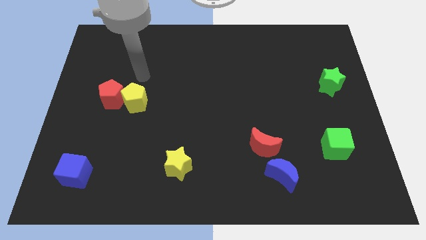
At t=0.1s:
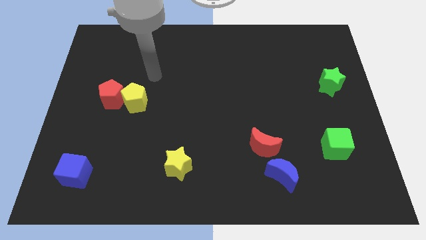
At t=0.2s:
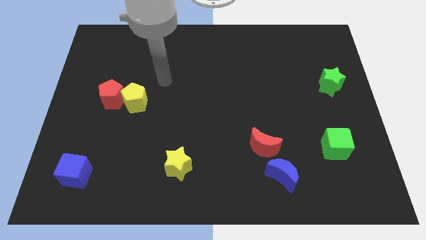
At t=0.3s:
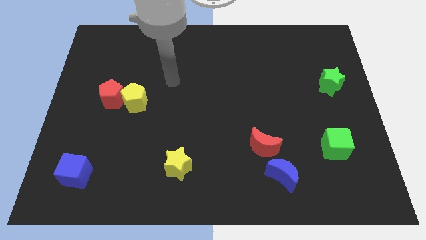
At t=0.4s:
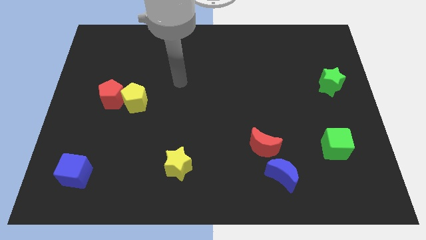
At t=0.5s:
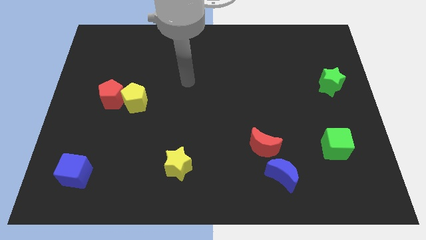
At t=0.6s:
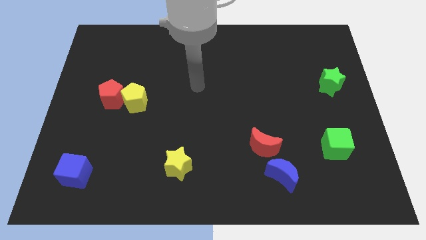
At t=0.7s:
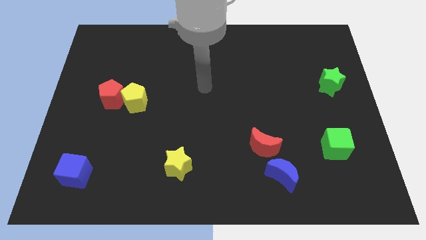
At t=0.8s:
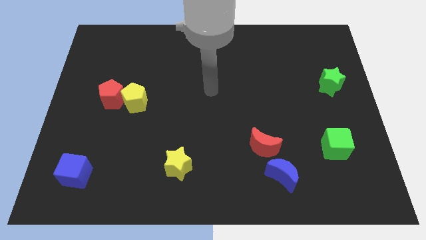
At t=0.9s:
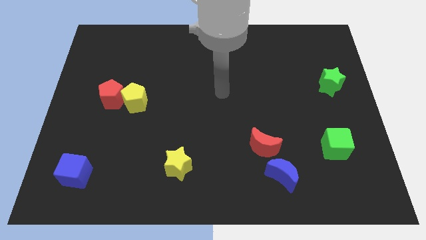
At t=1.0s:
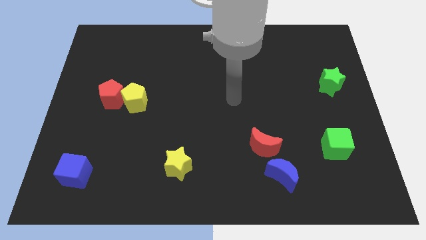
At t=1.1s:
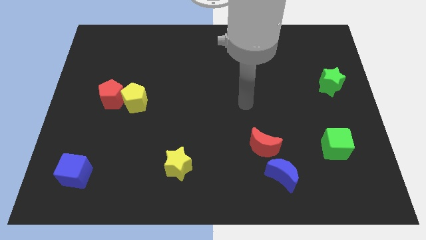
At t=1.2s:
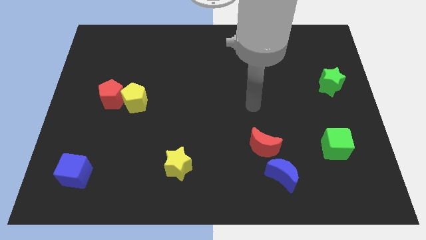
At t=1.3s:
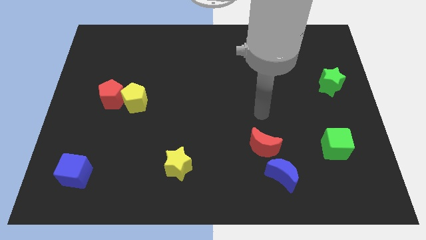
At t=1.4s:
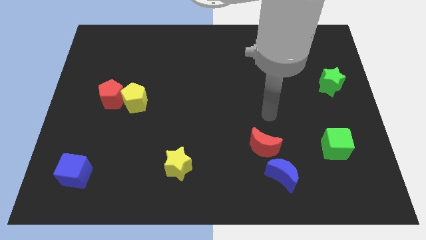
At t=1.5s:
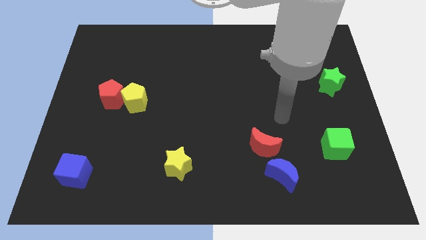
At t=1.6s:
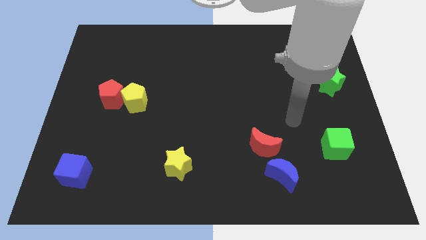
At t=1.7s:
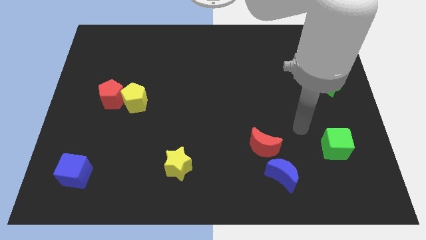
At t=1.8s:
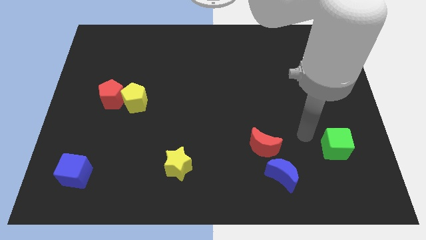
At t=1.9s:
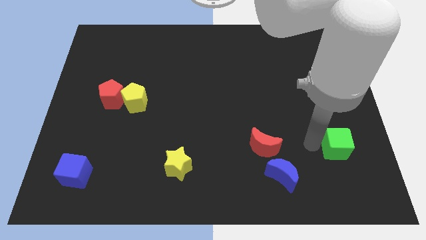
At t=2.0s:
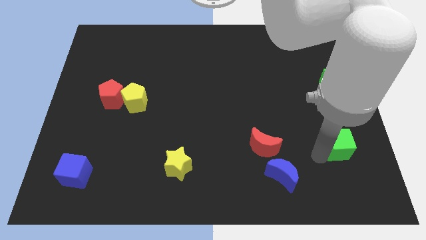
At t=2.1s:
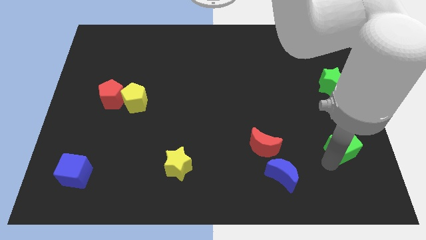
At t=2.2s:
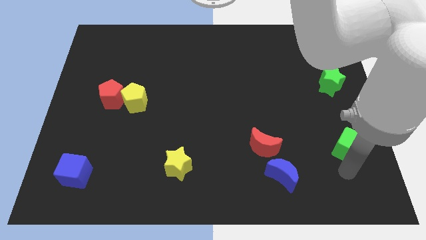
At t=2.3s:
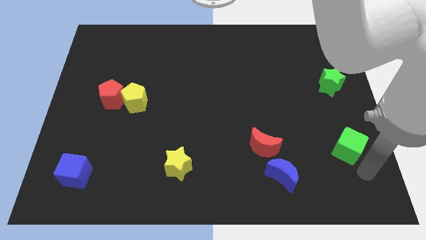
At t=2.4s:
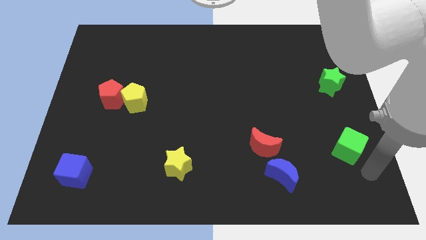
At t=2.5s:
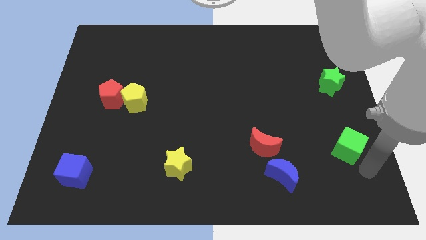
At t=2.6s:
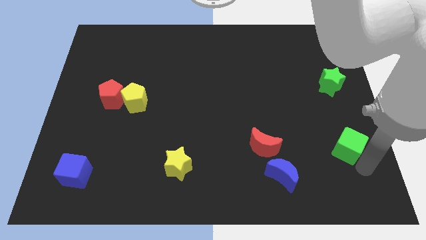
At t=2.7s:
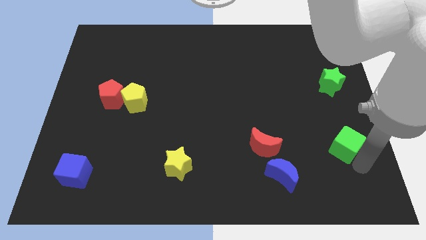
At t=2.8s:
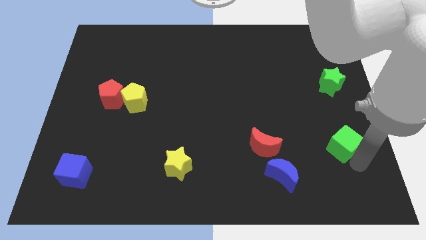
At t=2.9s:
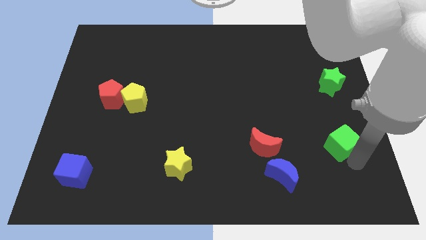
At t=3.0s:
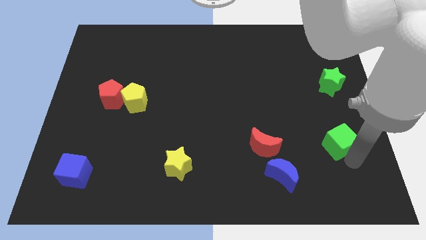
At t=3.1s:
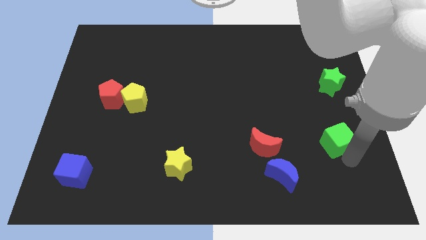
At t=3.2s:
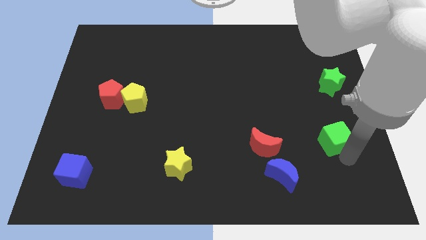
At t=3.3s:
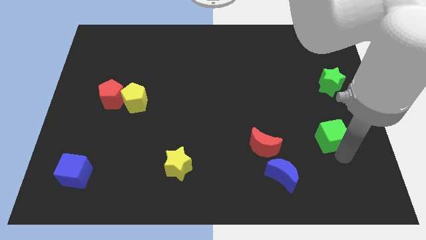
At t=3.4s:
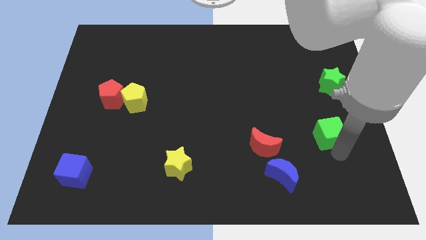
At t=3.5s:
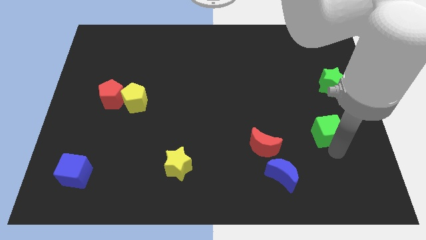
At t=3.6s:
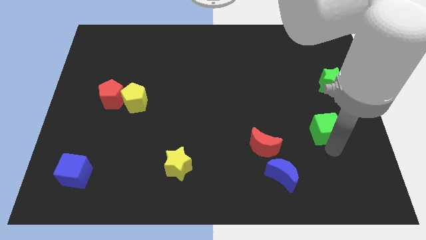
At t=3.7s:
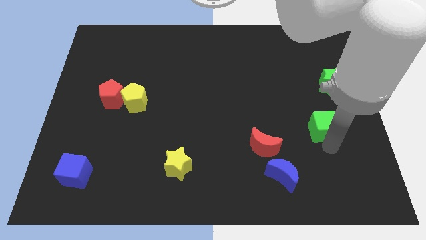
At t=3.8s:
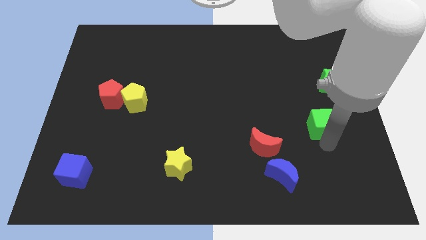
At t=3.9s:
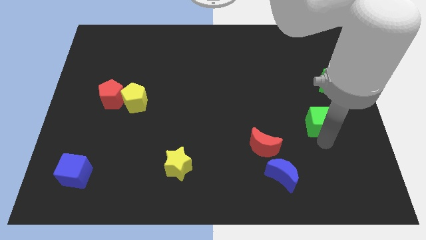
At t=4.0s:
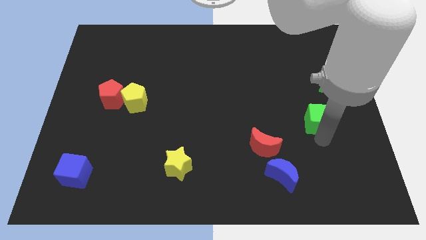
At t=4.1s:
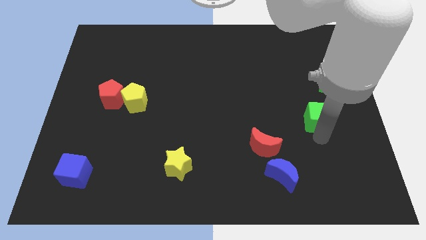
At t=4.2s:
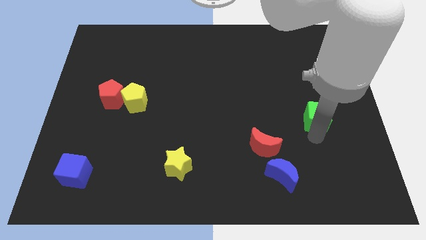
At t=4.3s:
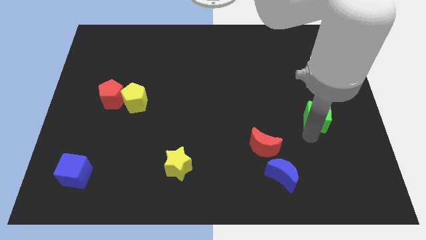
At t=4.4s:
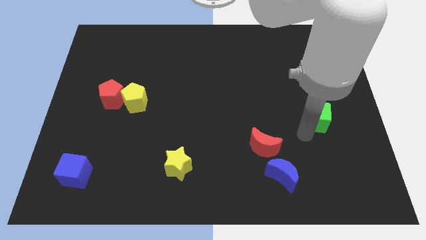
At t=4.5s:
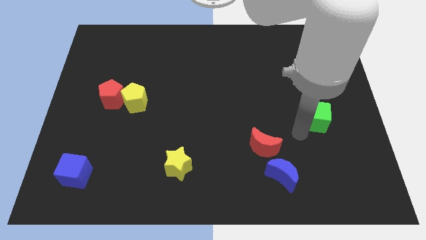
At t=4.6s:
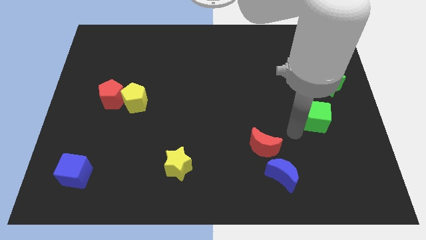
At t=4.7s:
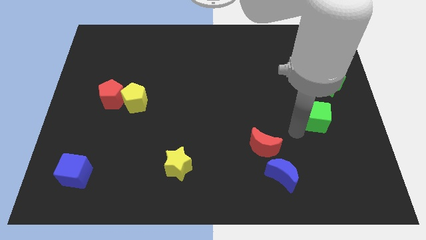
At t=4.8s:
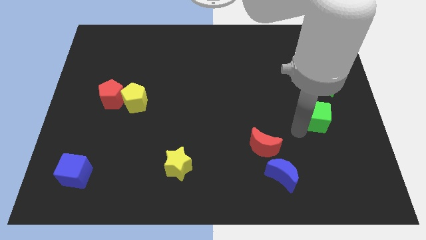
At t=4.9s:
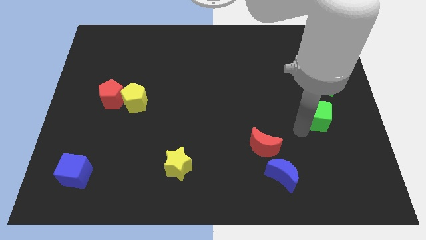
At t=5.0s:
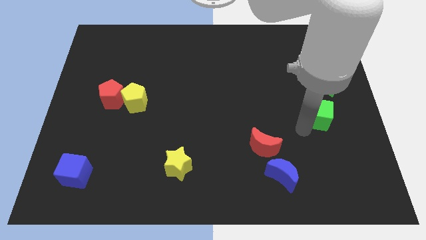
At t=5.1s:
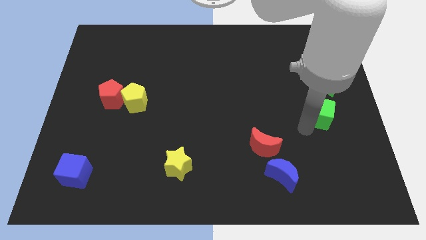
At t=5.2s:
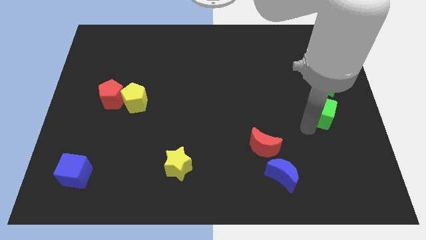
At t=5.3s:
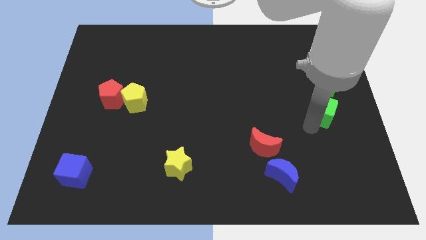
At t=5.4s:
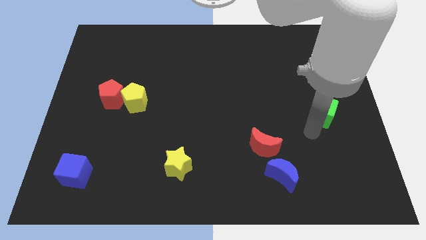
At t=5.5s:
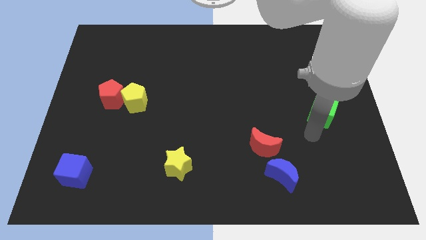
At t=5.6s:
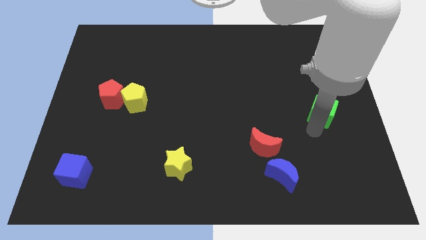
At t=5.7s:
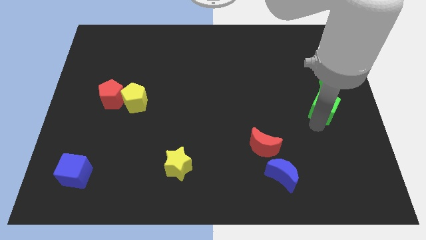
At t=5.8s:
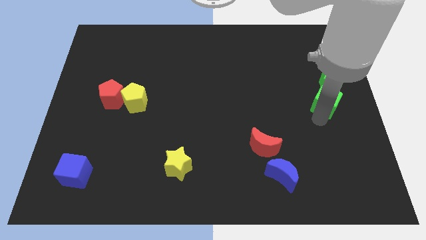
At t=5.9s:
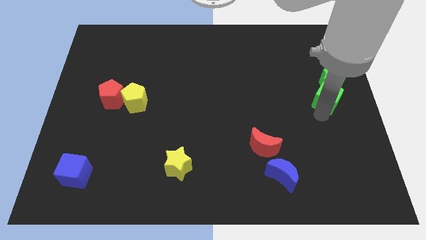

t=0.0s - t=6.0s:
push the green cube next to the green star

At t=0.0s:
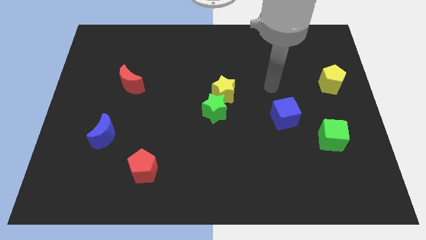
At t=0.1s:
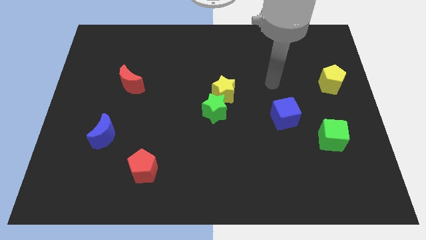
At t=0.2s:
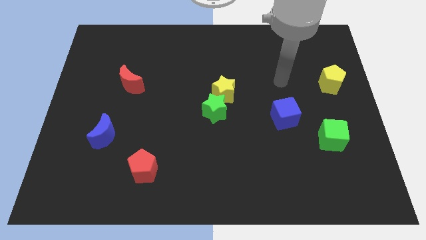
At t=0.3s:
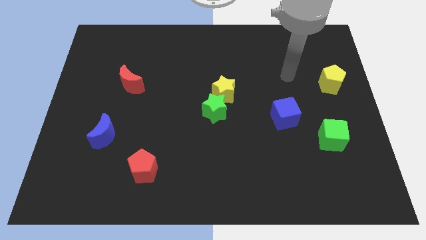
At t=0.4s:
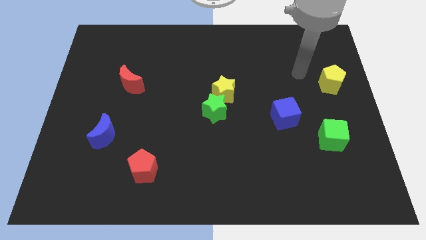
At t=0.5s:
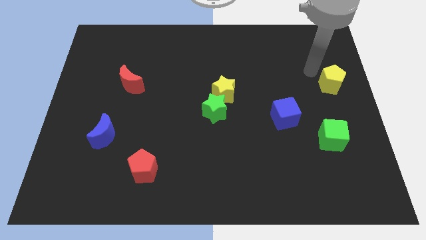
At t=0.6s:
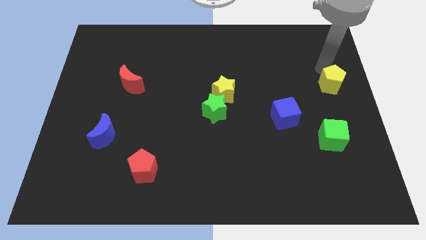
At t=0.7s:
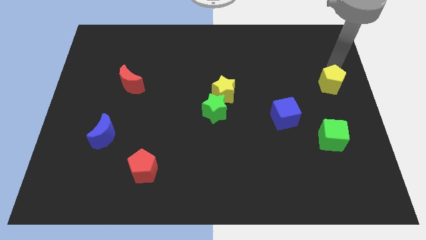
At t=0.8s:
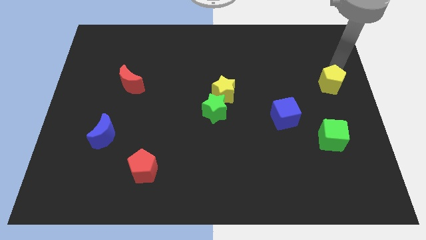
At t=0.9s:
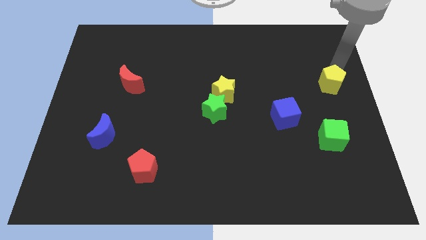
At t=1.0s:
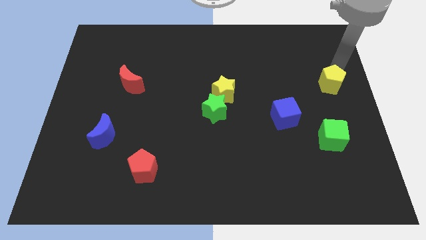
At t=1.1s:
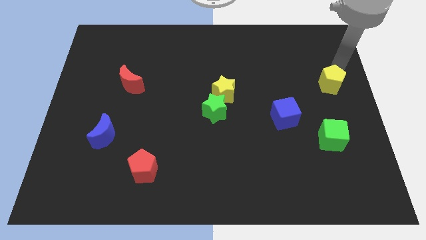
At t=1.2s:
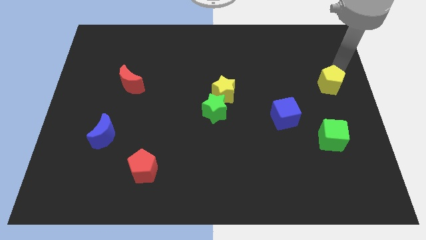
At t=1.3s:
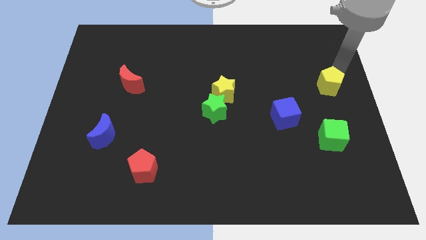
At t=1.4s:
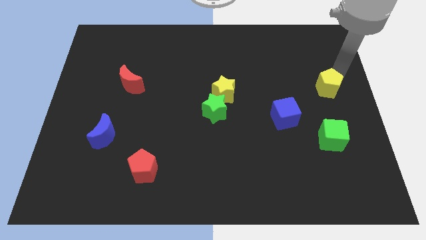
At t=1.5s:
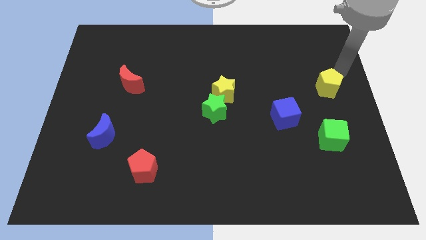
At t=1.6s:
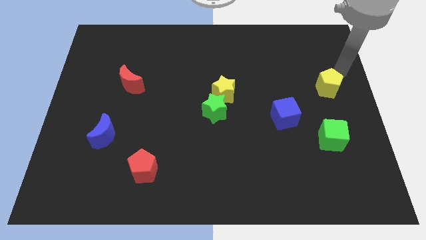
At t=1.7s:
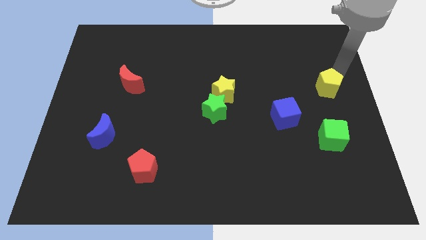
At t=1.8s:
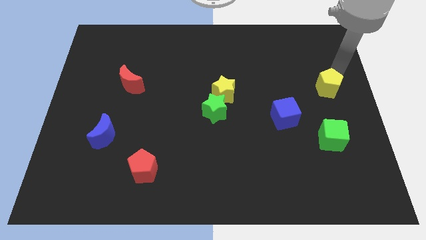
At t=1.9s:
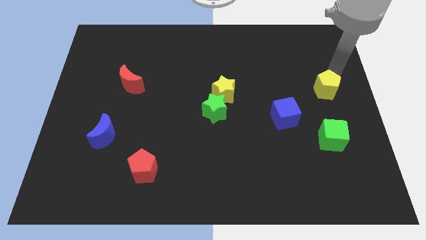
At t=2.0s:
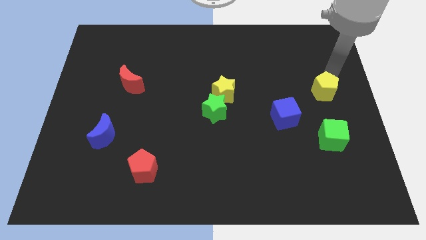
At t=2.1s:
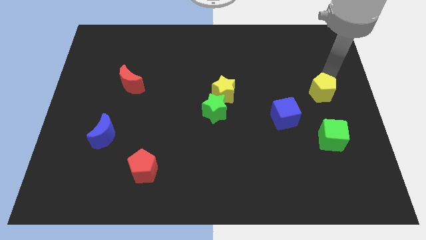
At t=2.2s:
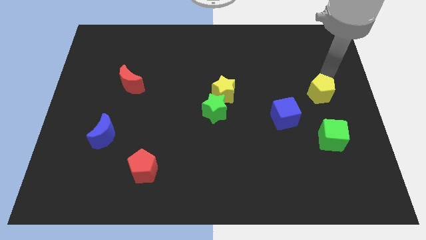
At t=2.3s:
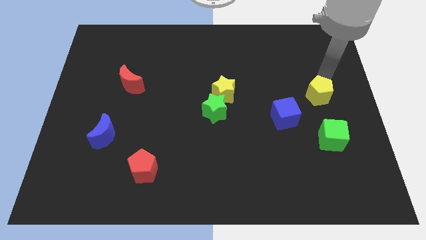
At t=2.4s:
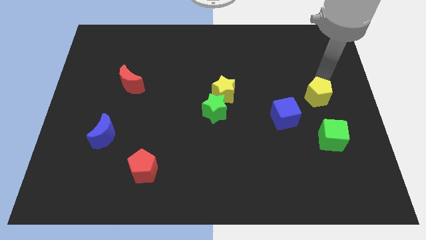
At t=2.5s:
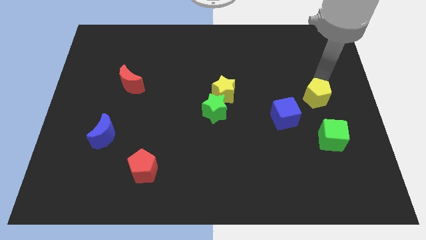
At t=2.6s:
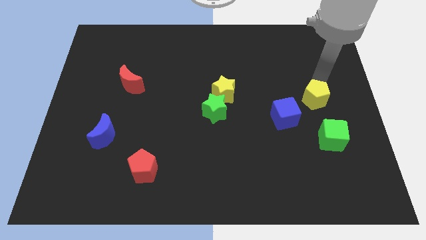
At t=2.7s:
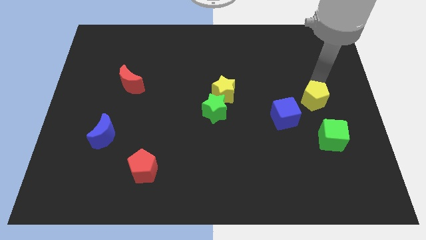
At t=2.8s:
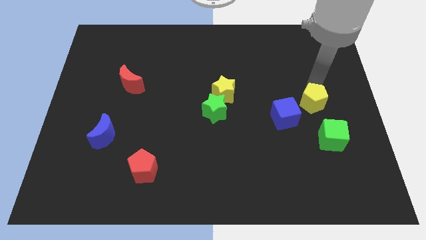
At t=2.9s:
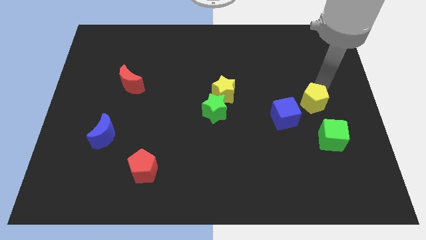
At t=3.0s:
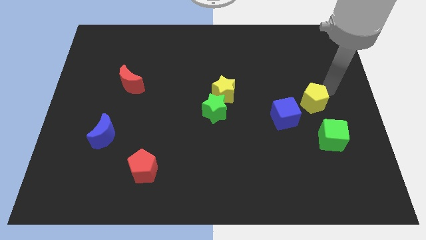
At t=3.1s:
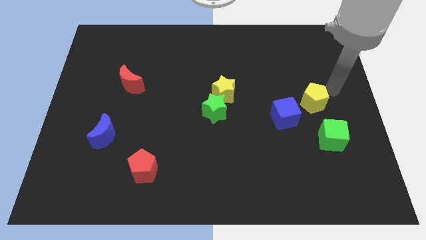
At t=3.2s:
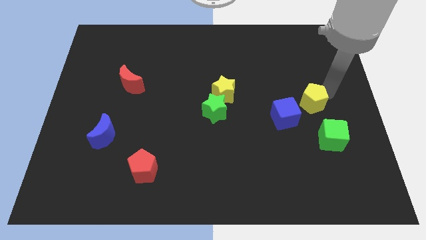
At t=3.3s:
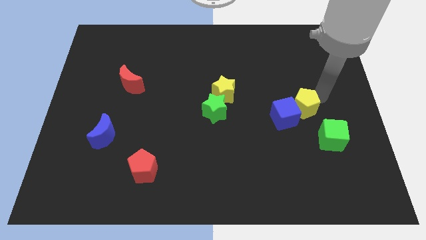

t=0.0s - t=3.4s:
push the yellow pentagon next to the blue cube
